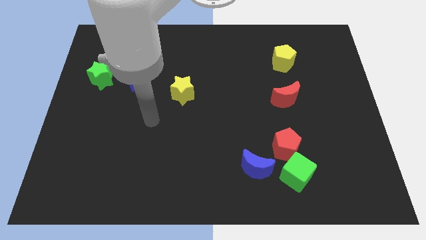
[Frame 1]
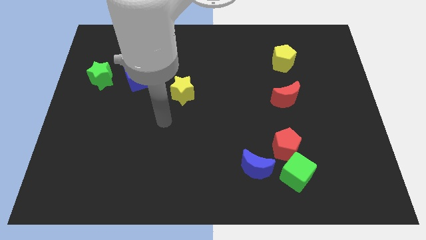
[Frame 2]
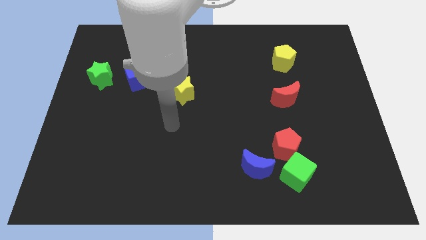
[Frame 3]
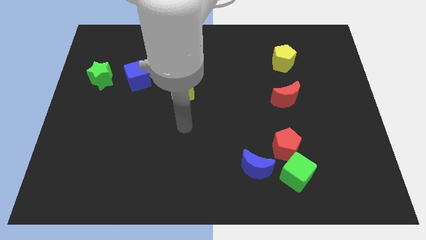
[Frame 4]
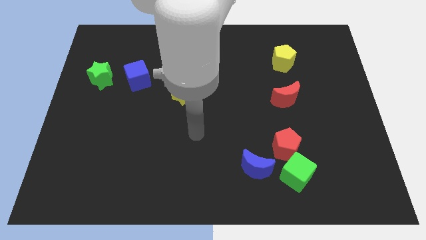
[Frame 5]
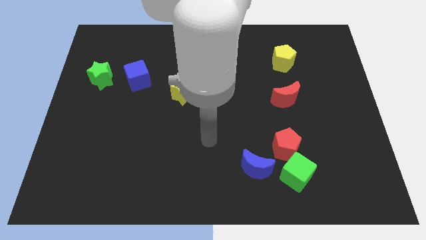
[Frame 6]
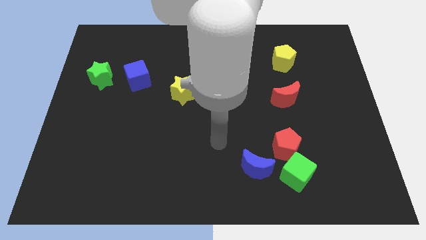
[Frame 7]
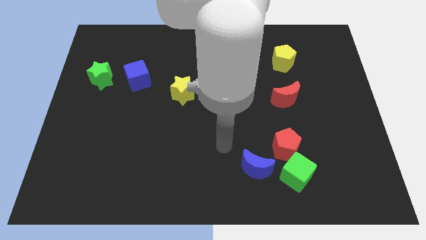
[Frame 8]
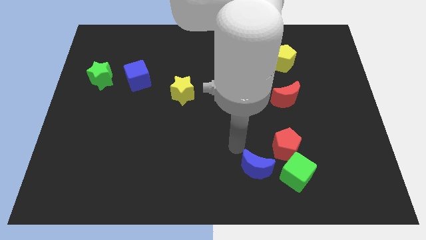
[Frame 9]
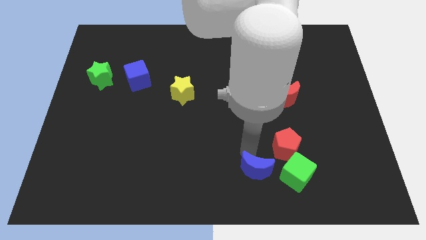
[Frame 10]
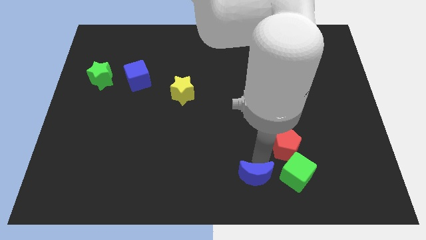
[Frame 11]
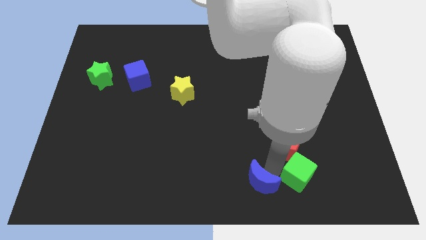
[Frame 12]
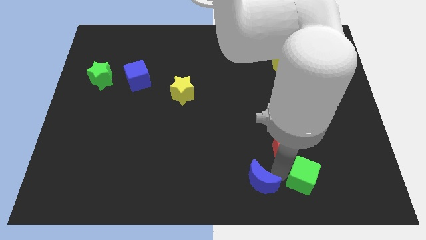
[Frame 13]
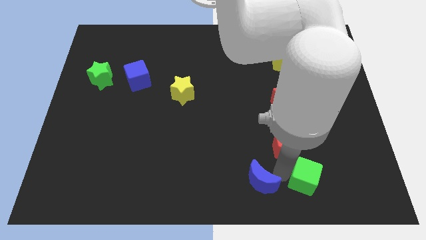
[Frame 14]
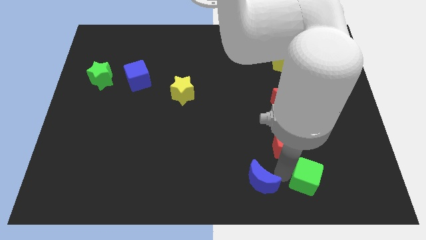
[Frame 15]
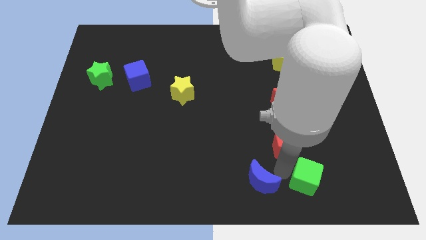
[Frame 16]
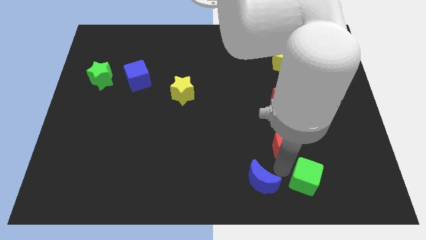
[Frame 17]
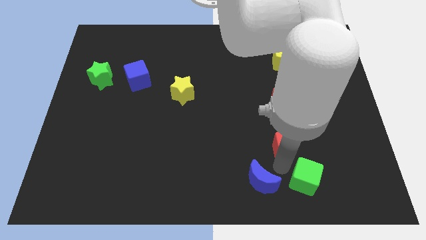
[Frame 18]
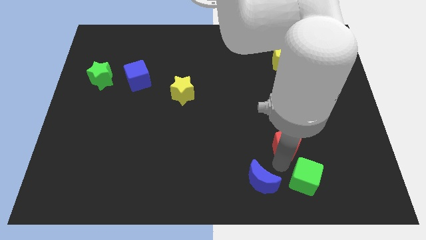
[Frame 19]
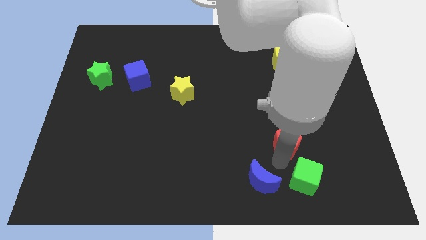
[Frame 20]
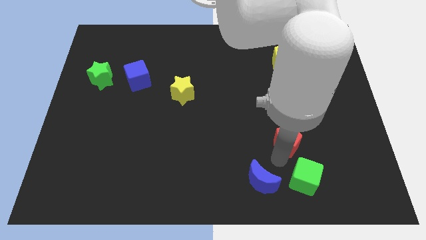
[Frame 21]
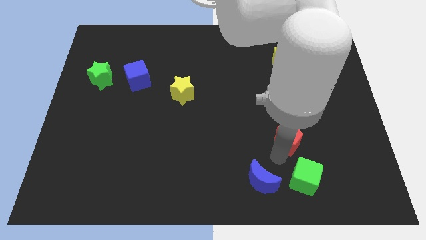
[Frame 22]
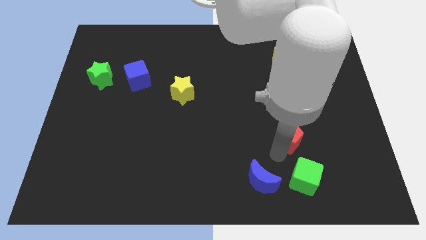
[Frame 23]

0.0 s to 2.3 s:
pull the red pentagon apart from the green cube and blue moon

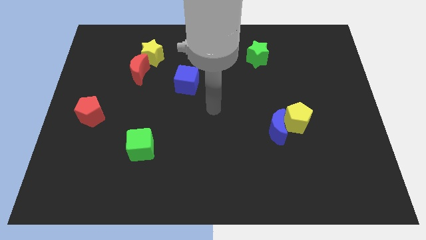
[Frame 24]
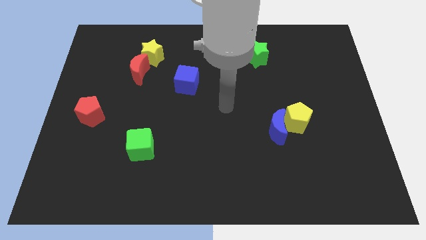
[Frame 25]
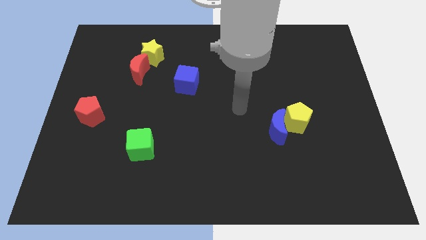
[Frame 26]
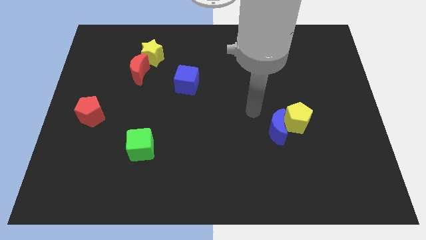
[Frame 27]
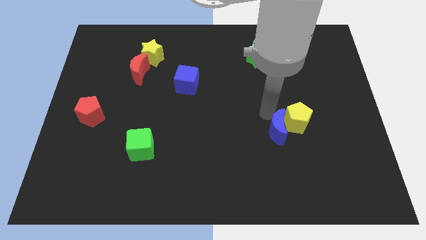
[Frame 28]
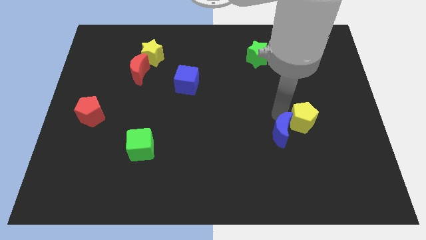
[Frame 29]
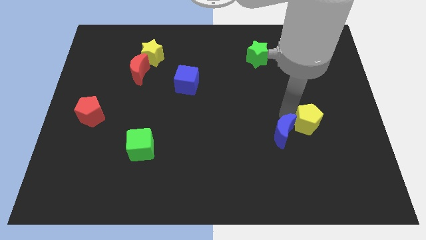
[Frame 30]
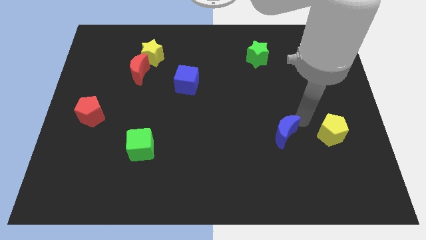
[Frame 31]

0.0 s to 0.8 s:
separate the blue moon from the yellow pentagon

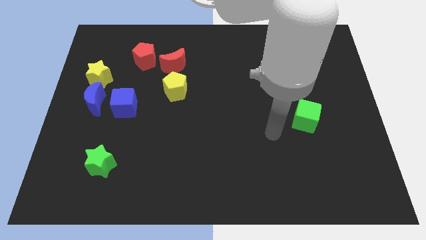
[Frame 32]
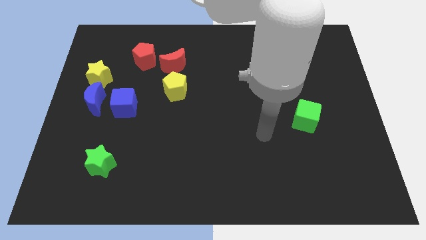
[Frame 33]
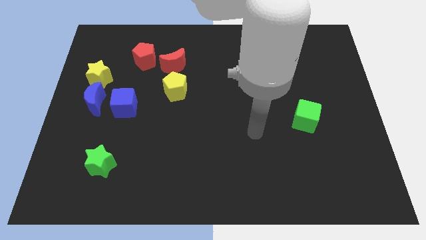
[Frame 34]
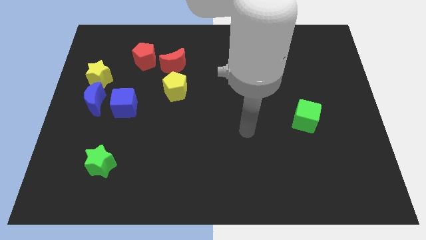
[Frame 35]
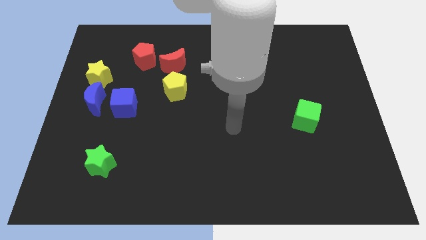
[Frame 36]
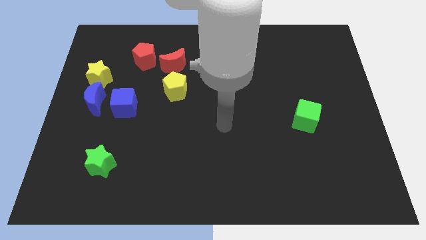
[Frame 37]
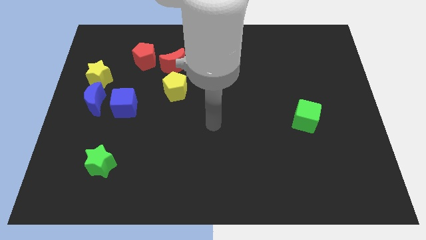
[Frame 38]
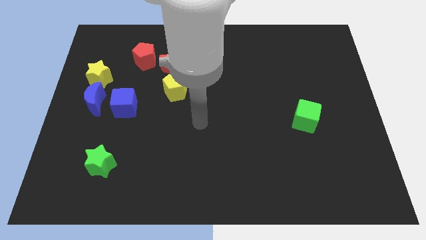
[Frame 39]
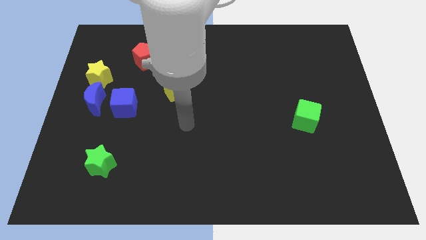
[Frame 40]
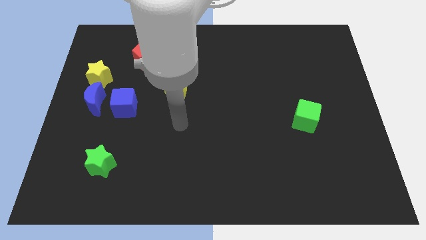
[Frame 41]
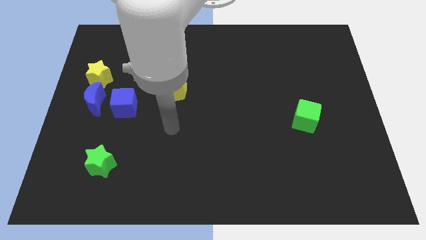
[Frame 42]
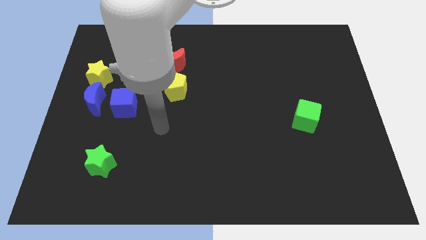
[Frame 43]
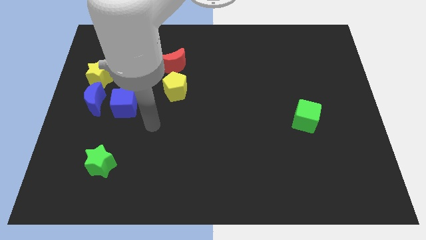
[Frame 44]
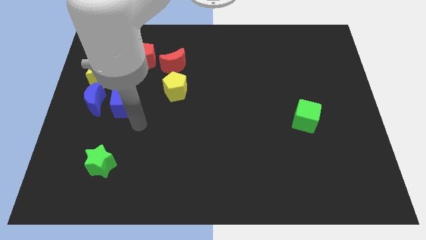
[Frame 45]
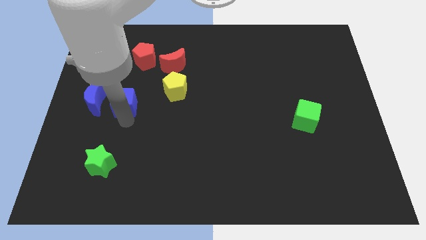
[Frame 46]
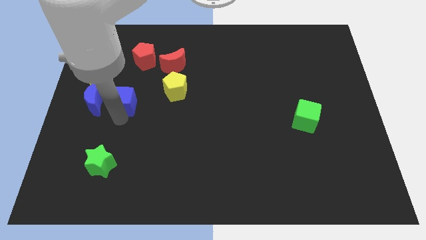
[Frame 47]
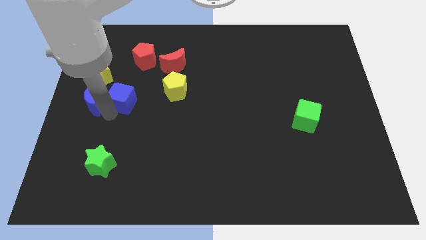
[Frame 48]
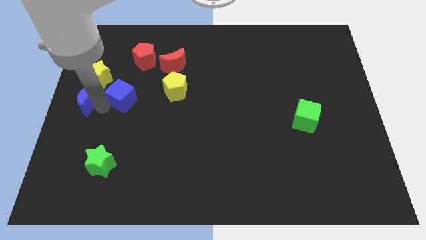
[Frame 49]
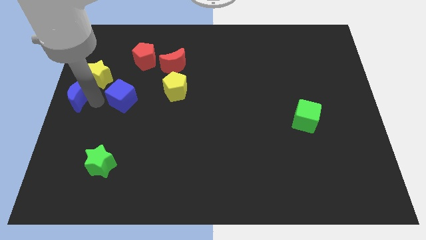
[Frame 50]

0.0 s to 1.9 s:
separate the blue cube from the blue moon

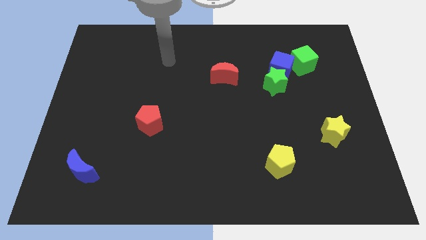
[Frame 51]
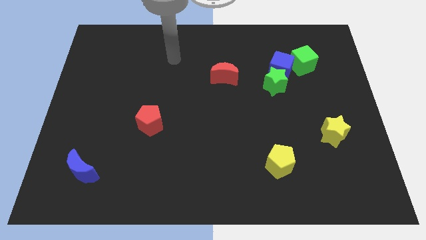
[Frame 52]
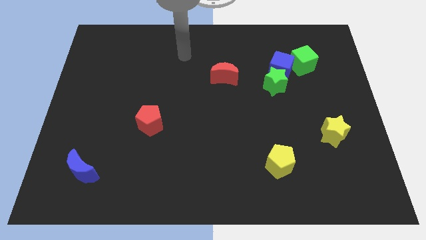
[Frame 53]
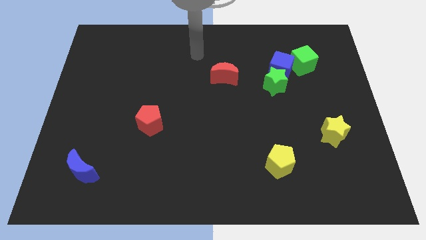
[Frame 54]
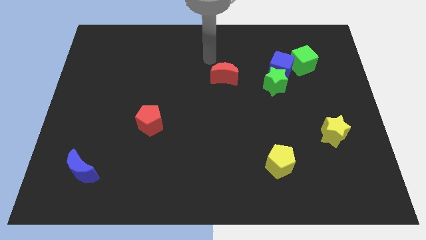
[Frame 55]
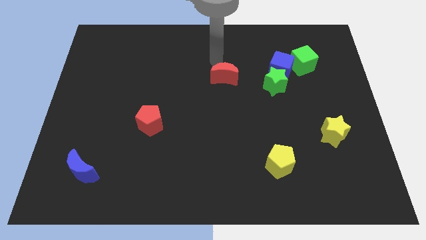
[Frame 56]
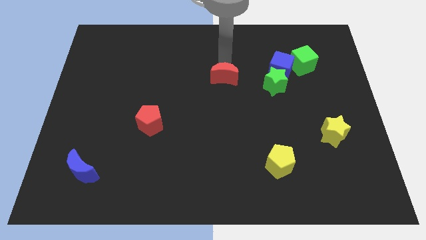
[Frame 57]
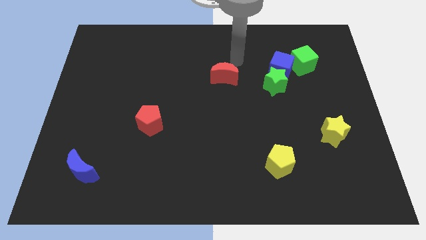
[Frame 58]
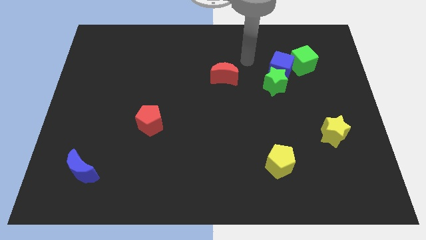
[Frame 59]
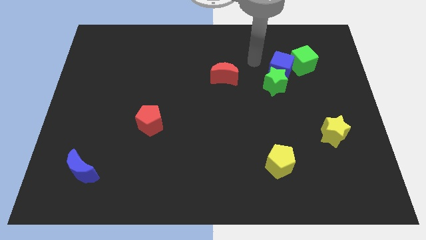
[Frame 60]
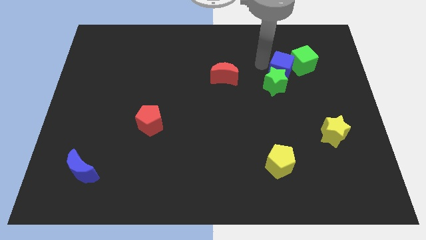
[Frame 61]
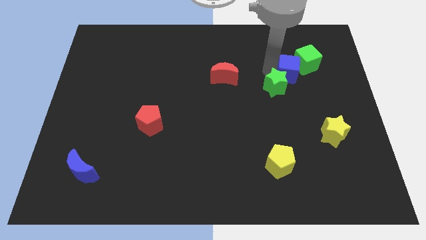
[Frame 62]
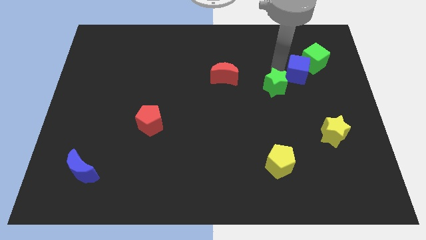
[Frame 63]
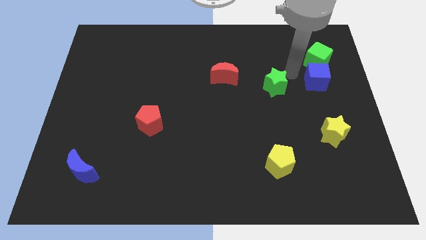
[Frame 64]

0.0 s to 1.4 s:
move the green star away from the blue cube

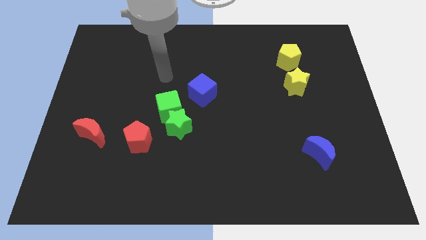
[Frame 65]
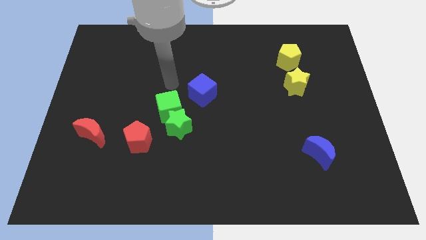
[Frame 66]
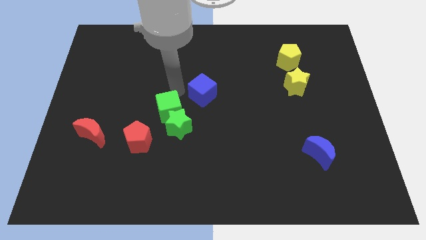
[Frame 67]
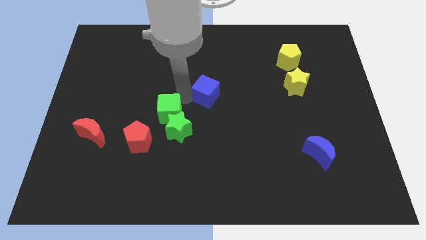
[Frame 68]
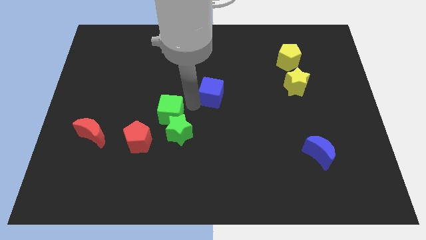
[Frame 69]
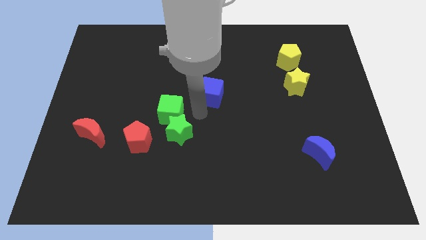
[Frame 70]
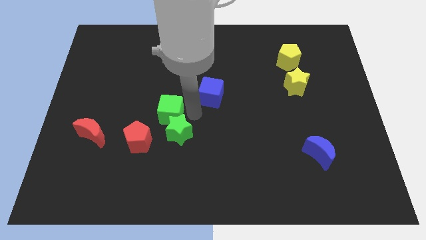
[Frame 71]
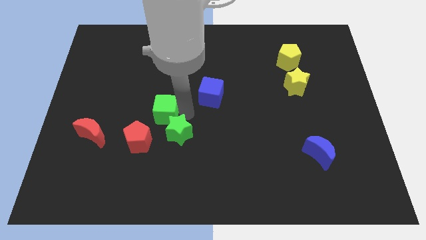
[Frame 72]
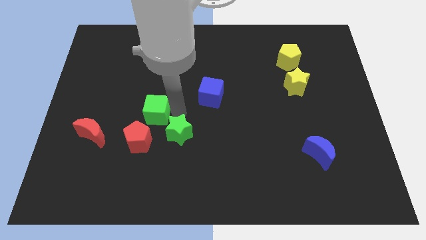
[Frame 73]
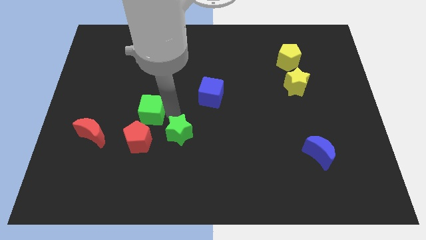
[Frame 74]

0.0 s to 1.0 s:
separate the green cube from the green star and blue cube

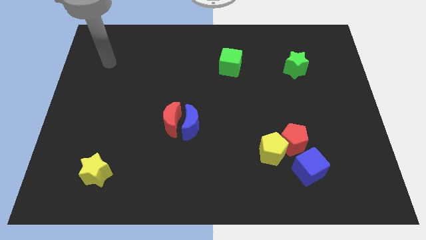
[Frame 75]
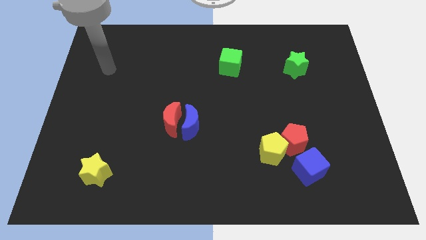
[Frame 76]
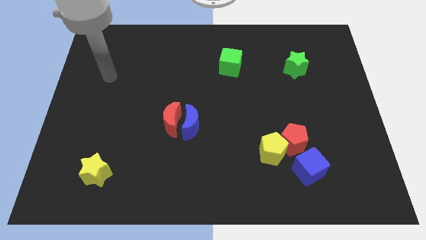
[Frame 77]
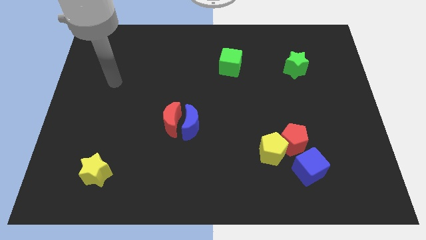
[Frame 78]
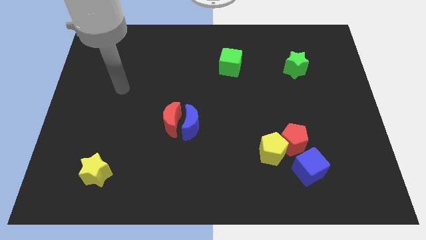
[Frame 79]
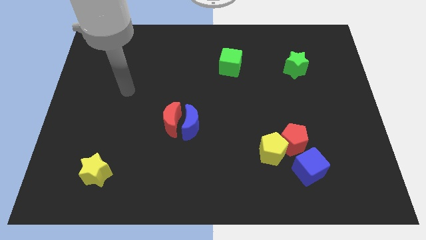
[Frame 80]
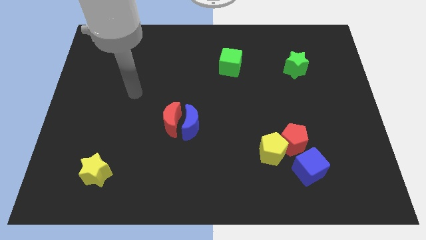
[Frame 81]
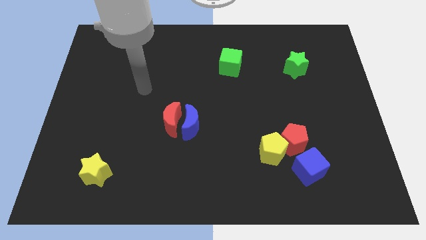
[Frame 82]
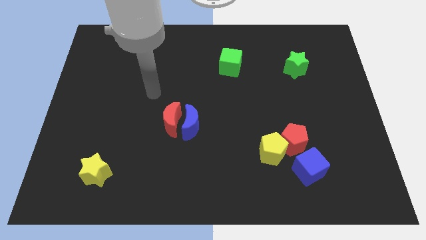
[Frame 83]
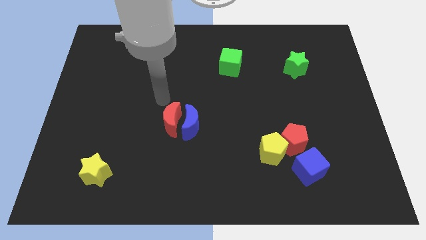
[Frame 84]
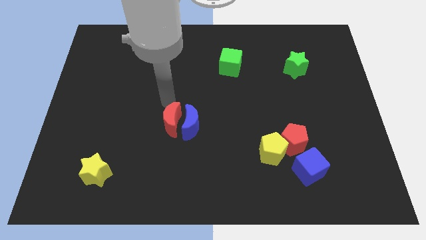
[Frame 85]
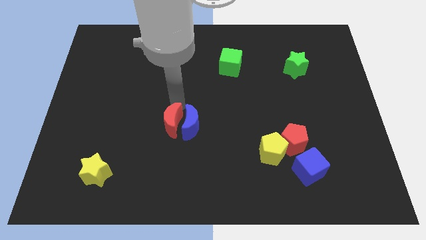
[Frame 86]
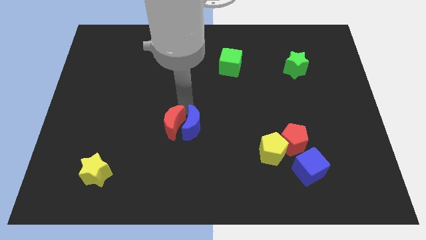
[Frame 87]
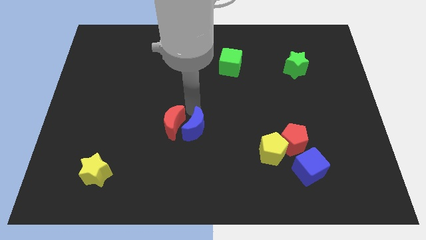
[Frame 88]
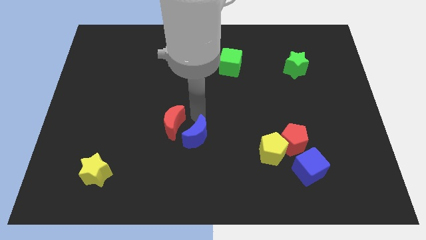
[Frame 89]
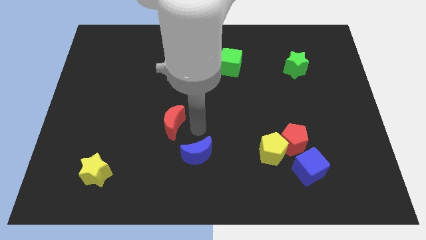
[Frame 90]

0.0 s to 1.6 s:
pull the red moon apart from the blue moon

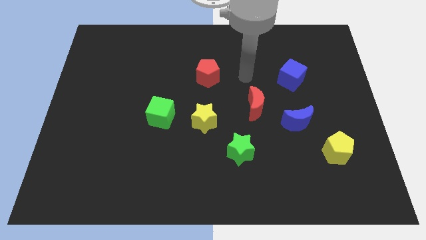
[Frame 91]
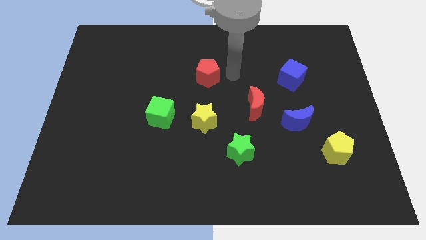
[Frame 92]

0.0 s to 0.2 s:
separate the green cube from the yellow star
